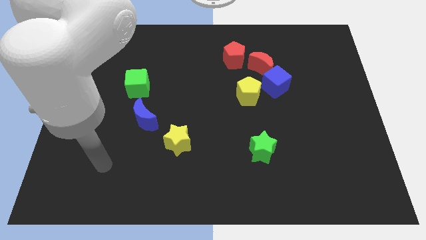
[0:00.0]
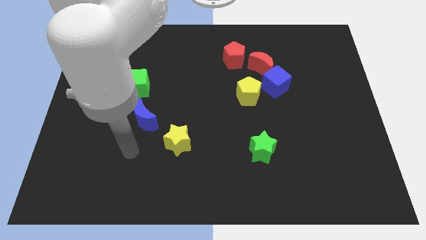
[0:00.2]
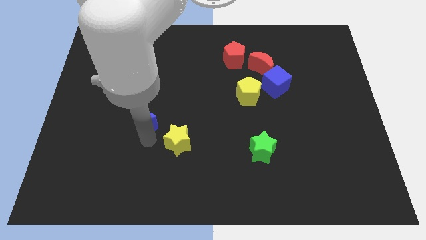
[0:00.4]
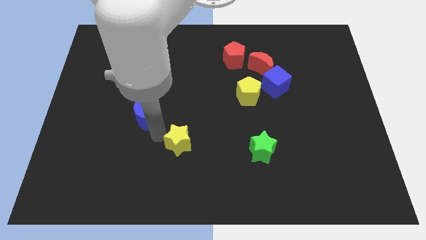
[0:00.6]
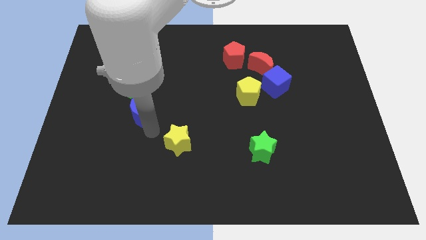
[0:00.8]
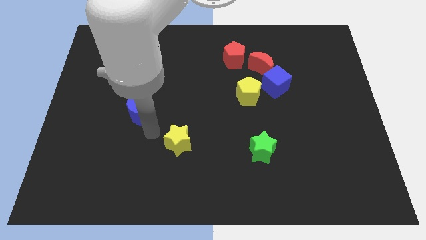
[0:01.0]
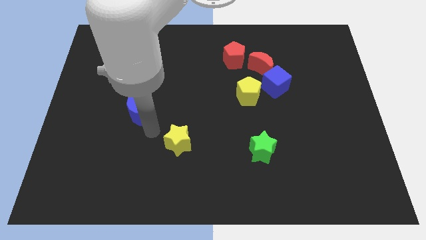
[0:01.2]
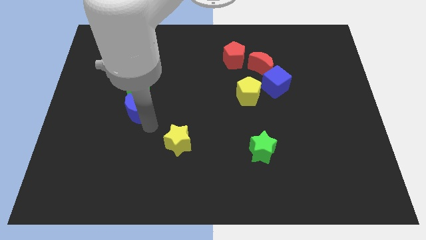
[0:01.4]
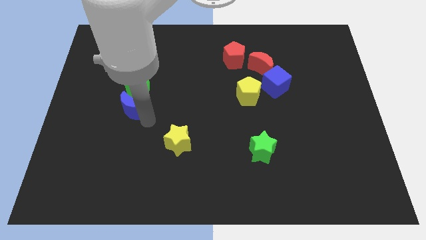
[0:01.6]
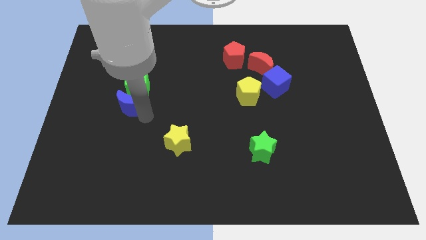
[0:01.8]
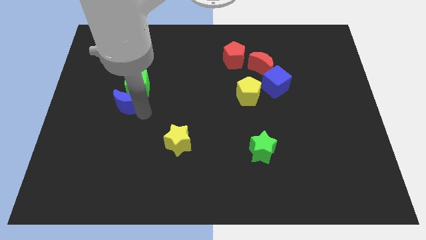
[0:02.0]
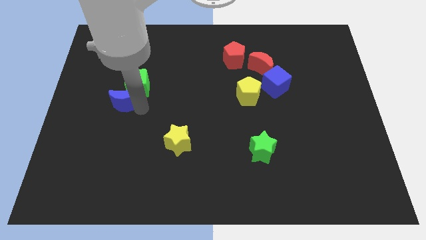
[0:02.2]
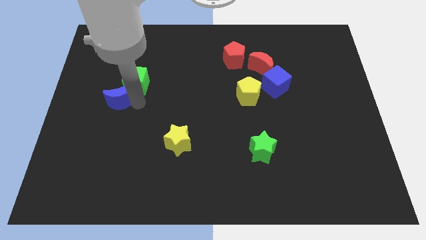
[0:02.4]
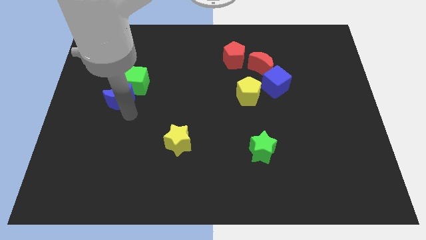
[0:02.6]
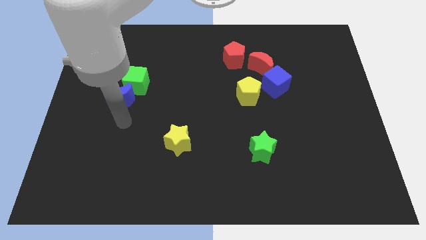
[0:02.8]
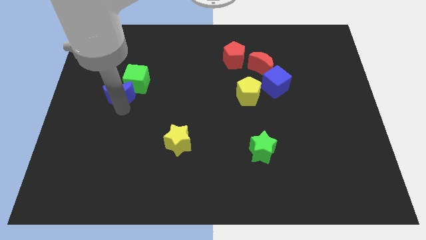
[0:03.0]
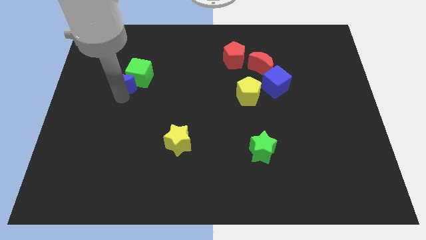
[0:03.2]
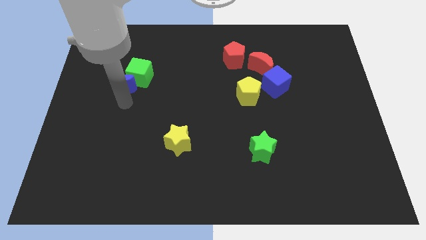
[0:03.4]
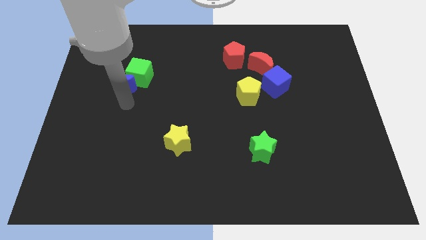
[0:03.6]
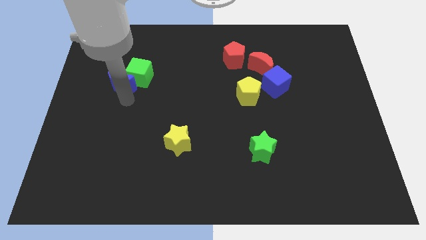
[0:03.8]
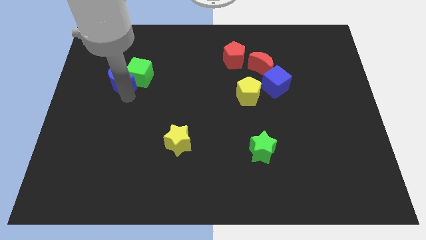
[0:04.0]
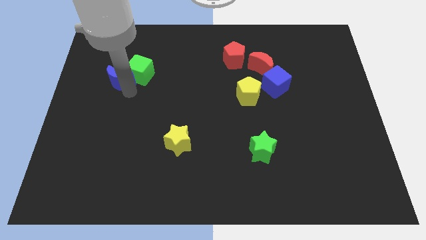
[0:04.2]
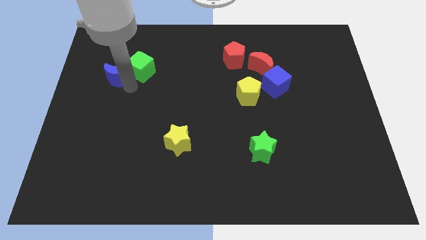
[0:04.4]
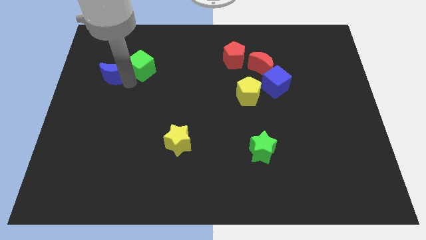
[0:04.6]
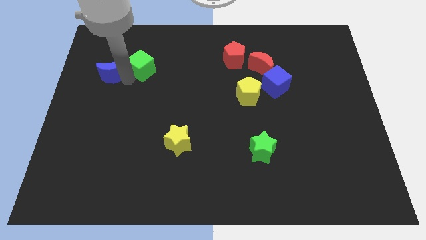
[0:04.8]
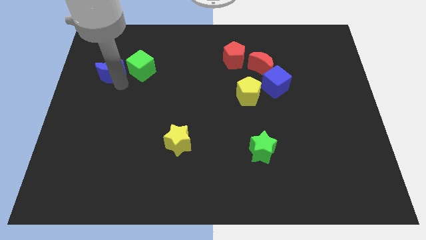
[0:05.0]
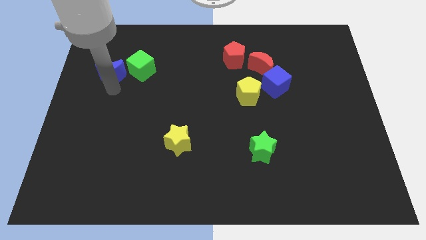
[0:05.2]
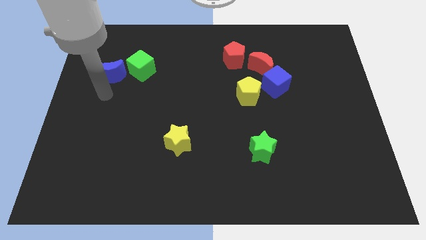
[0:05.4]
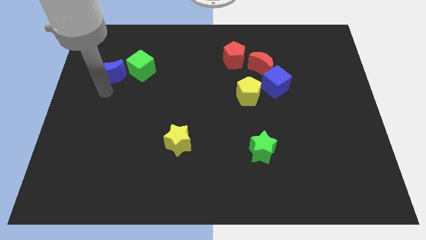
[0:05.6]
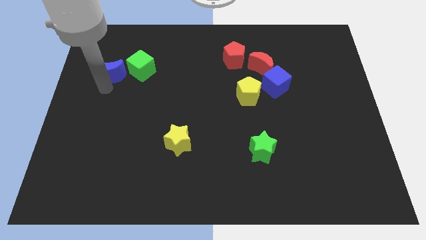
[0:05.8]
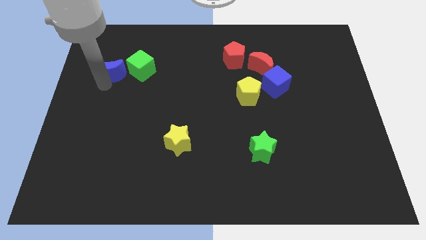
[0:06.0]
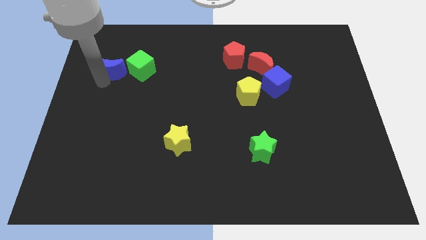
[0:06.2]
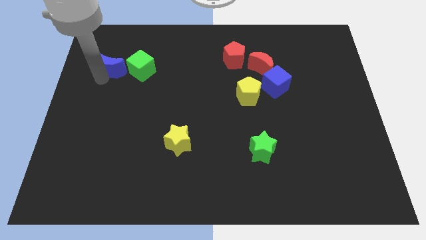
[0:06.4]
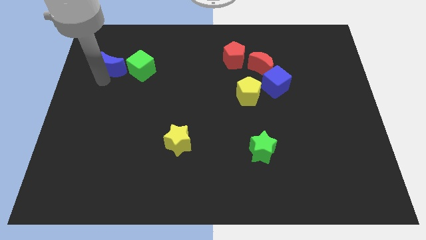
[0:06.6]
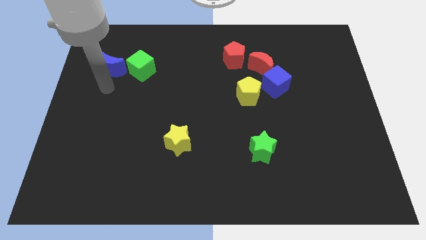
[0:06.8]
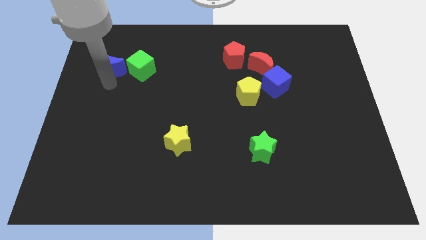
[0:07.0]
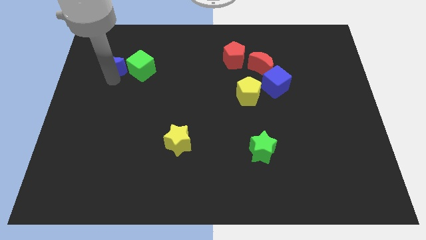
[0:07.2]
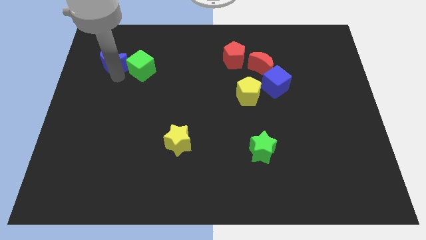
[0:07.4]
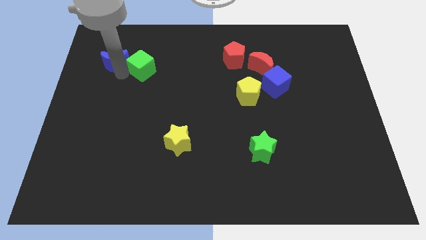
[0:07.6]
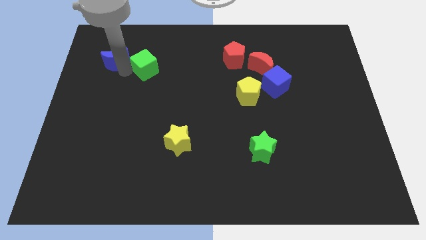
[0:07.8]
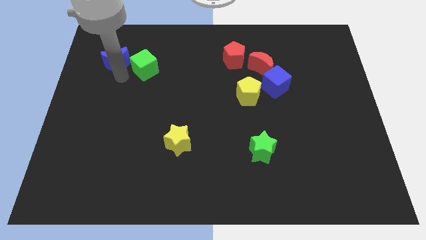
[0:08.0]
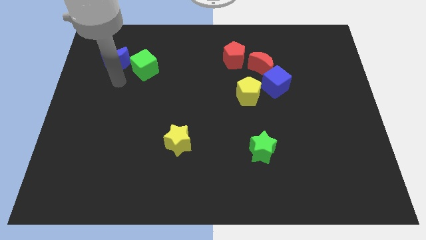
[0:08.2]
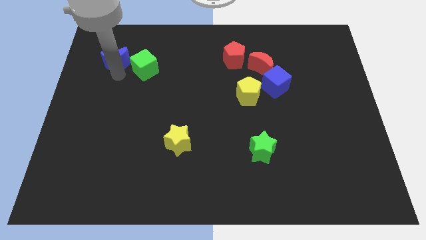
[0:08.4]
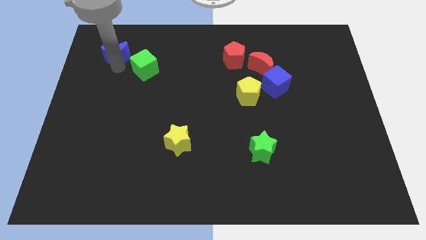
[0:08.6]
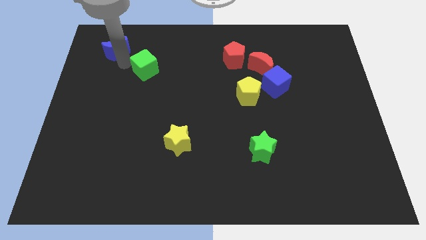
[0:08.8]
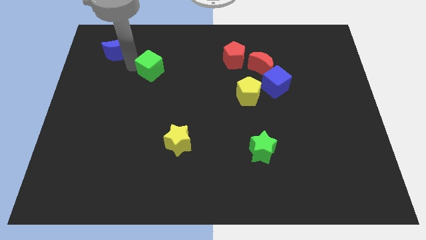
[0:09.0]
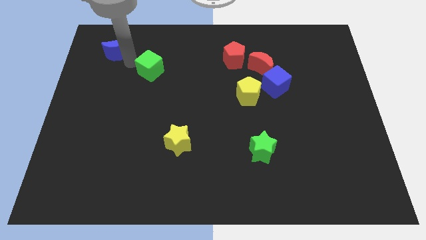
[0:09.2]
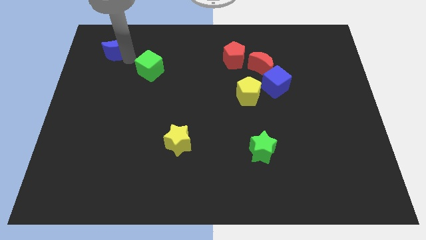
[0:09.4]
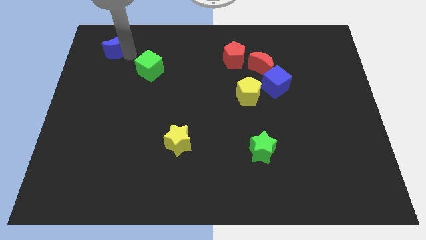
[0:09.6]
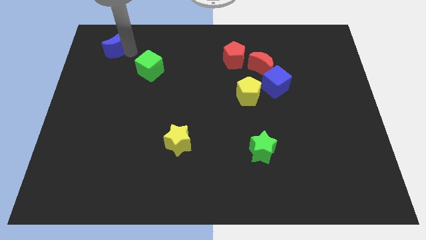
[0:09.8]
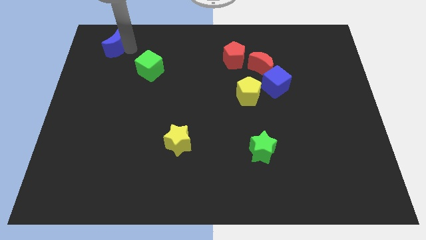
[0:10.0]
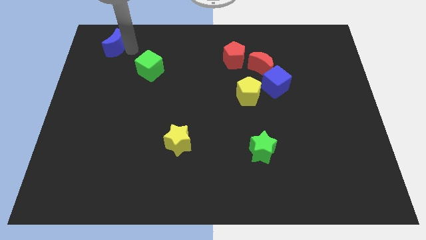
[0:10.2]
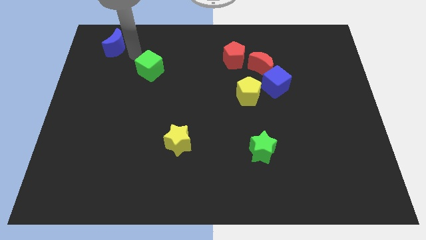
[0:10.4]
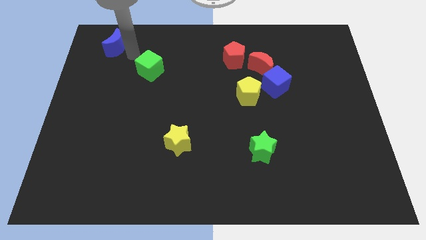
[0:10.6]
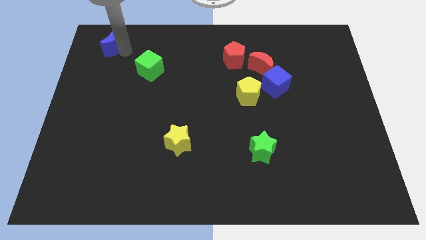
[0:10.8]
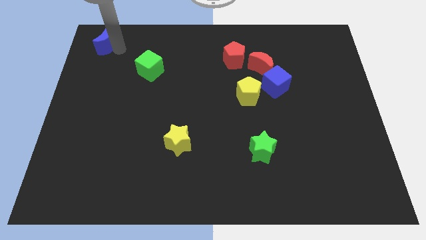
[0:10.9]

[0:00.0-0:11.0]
slide the blue moon to the top left corner

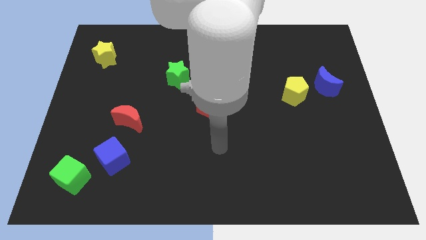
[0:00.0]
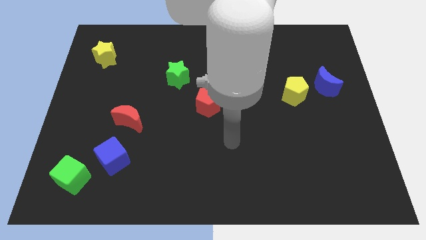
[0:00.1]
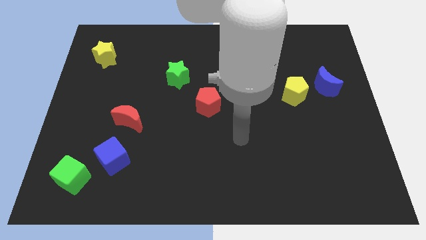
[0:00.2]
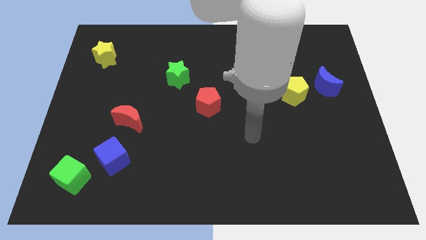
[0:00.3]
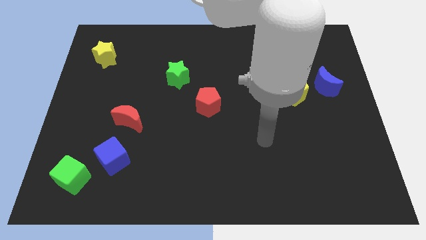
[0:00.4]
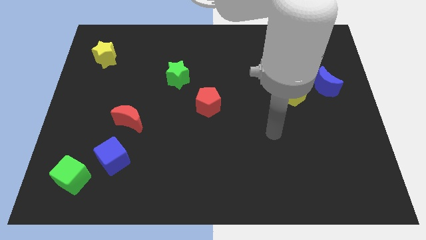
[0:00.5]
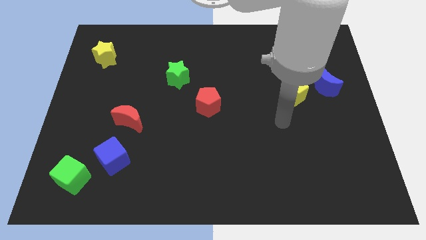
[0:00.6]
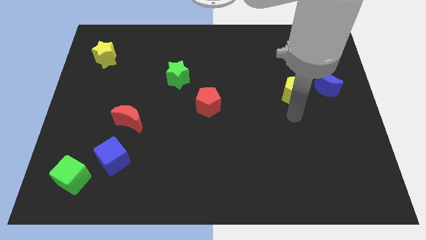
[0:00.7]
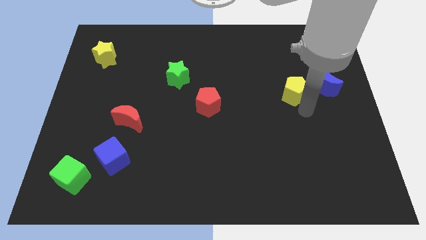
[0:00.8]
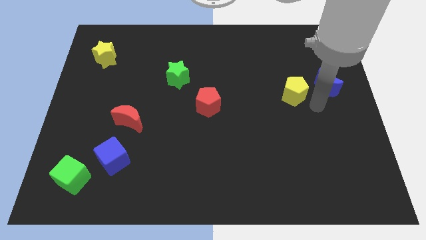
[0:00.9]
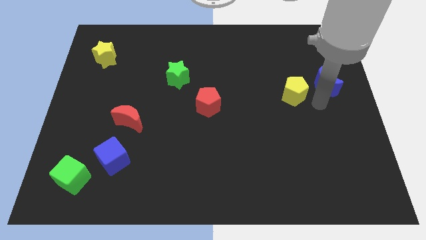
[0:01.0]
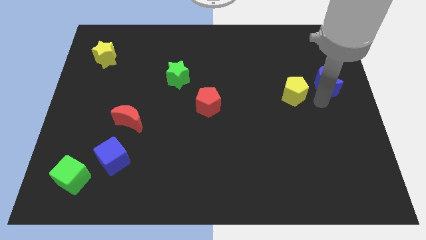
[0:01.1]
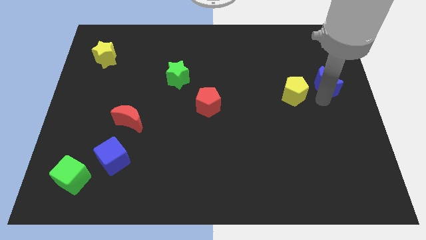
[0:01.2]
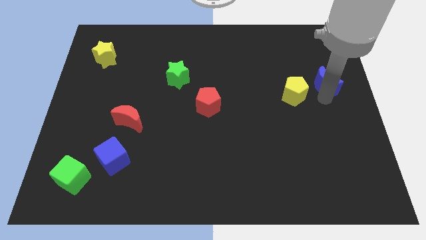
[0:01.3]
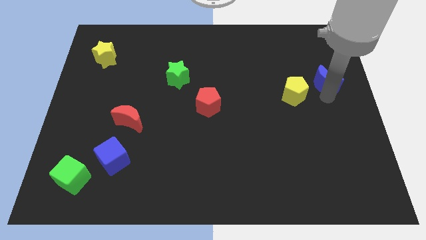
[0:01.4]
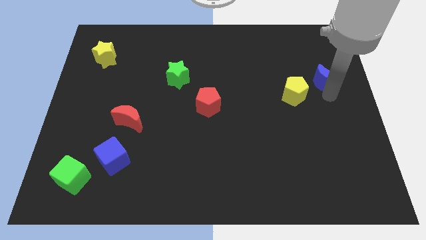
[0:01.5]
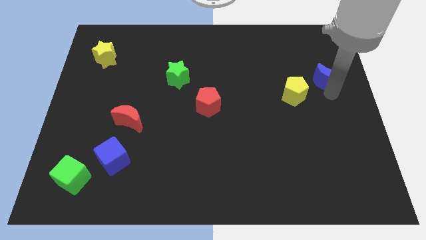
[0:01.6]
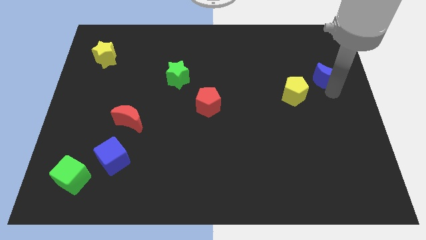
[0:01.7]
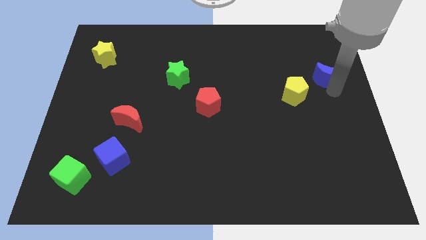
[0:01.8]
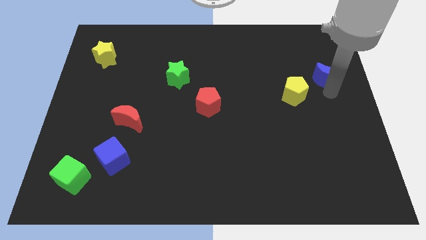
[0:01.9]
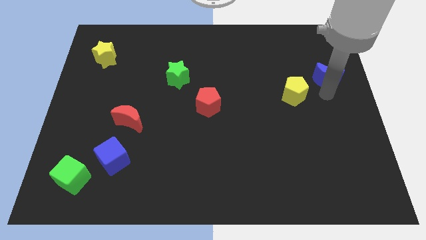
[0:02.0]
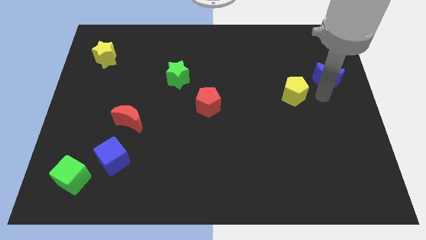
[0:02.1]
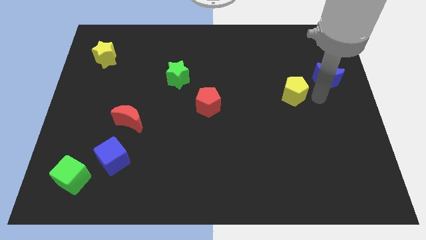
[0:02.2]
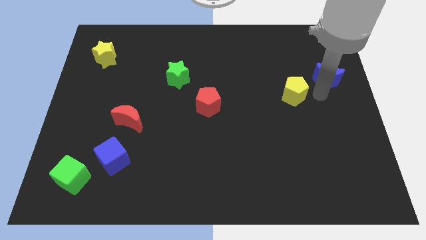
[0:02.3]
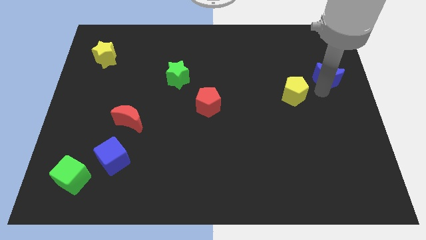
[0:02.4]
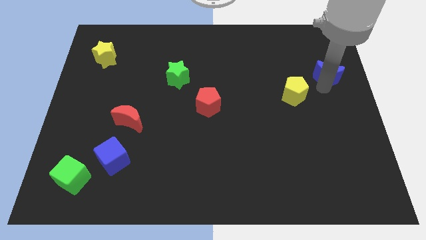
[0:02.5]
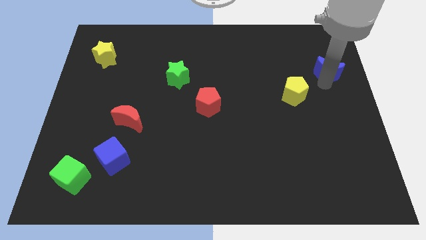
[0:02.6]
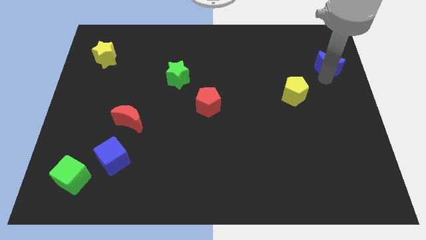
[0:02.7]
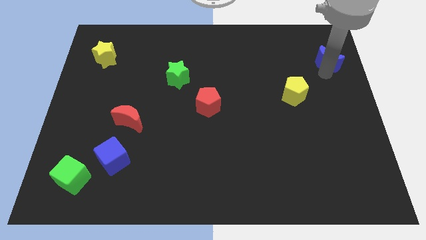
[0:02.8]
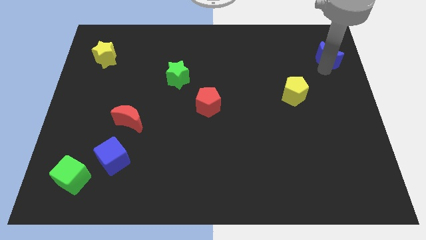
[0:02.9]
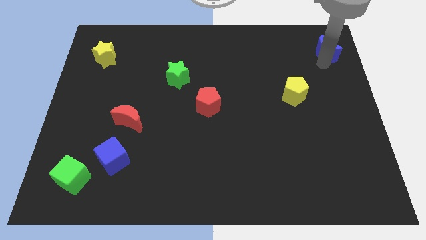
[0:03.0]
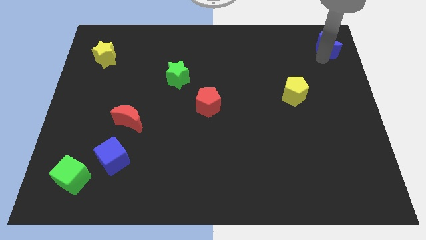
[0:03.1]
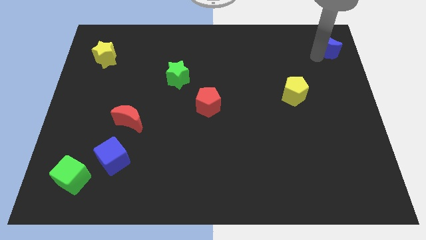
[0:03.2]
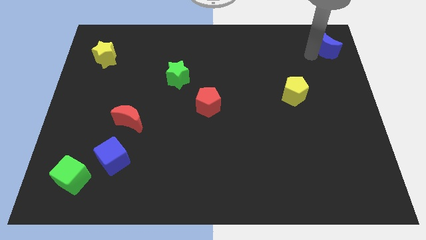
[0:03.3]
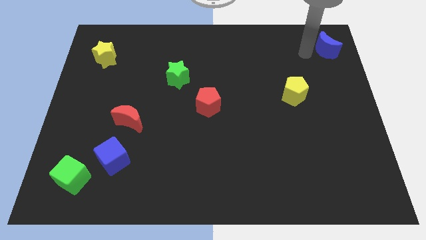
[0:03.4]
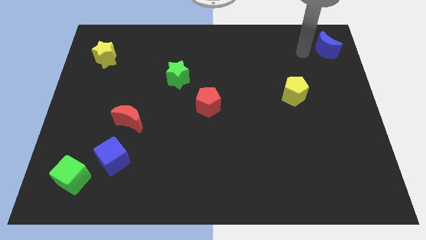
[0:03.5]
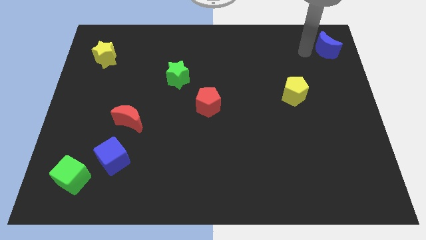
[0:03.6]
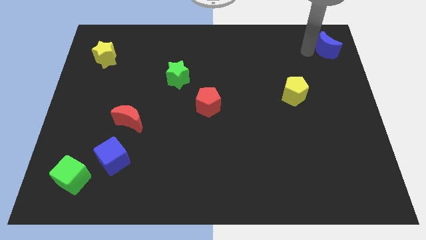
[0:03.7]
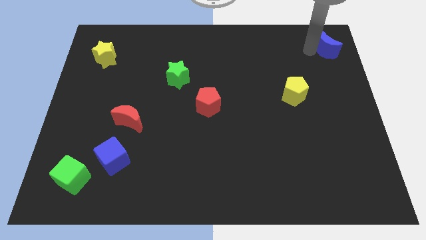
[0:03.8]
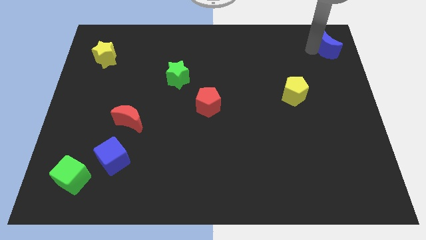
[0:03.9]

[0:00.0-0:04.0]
push the blue moon to the top right
